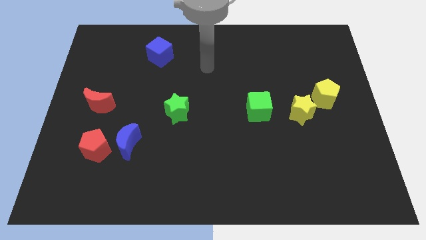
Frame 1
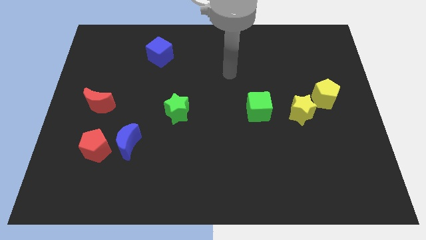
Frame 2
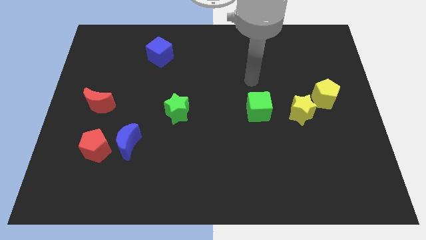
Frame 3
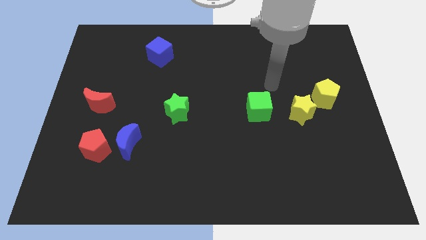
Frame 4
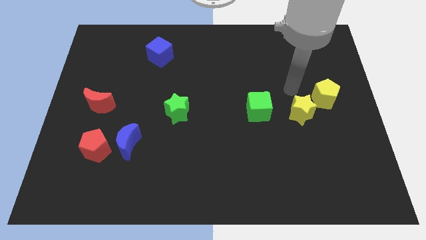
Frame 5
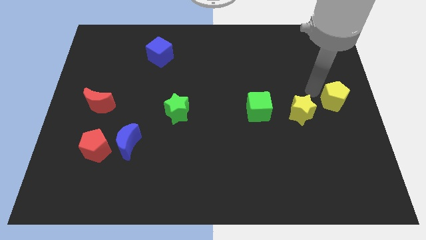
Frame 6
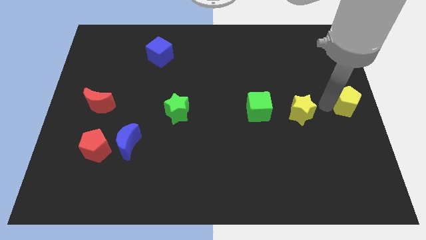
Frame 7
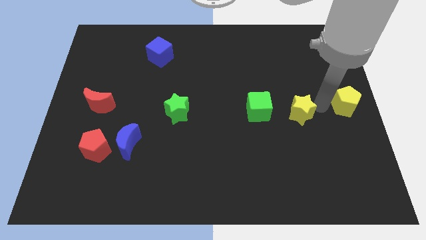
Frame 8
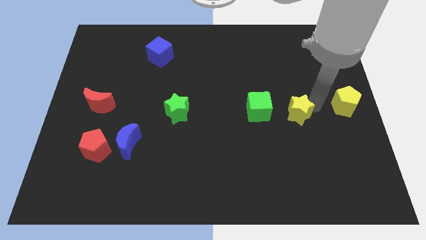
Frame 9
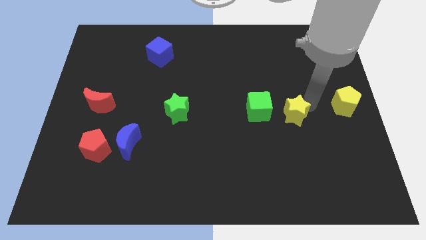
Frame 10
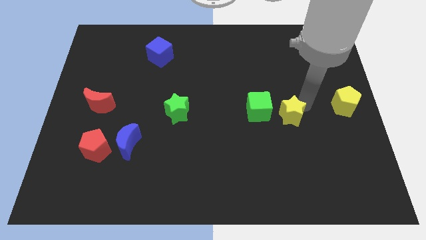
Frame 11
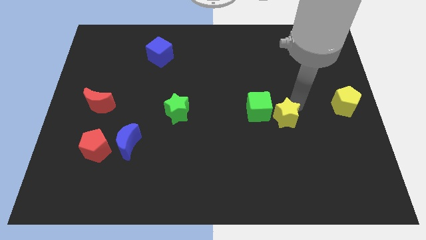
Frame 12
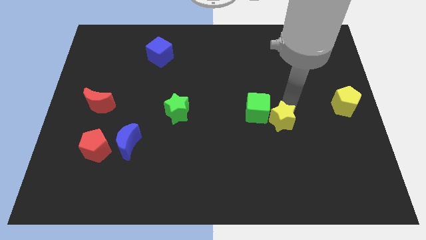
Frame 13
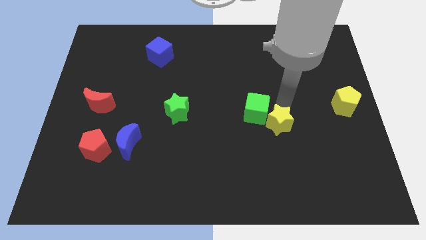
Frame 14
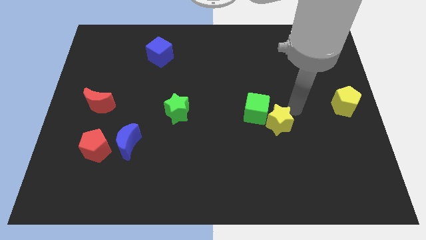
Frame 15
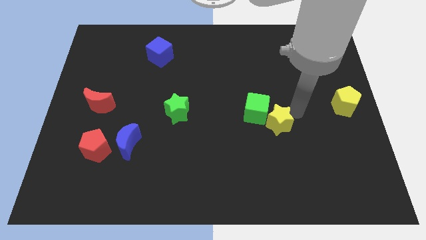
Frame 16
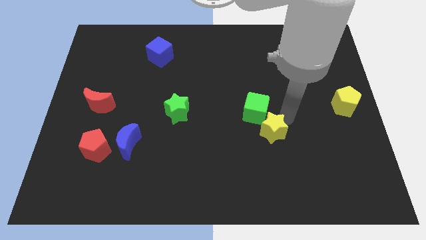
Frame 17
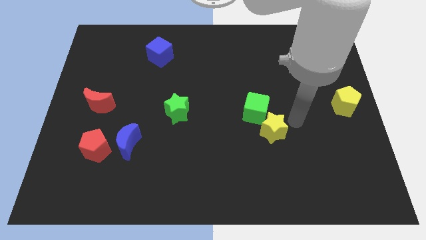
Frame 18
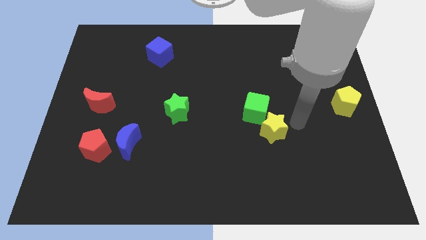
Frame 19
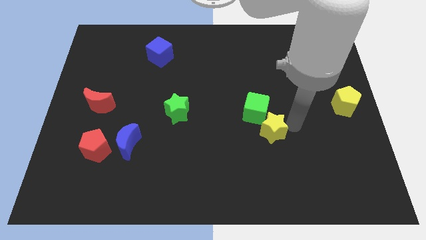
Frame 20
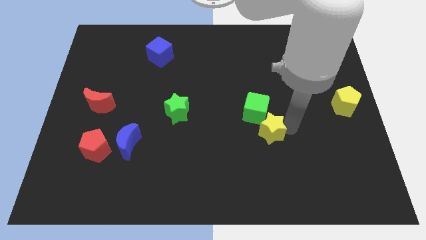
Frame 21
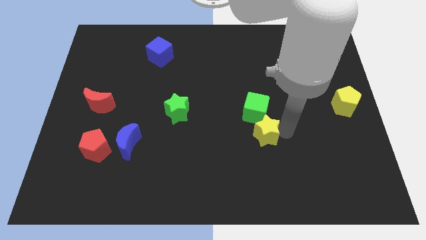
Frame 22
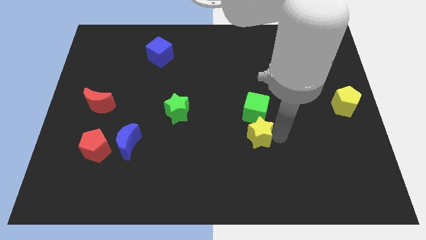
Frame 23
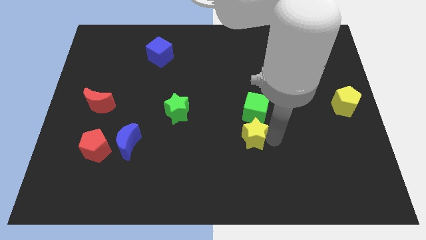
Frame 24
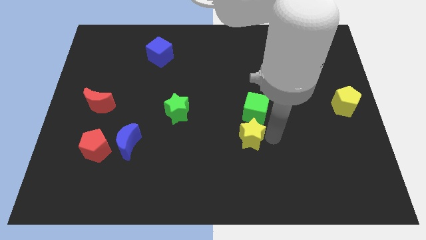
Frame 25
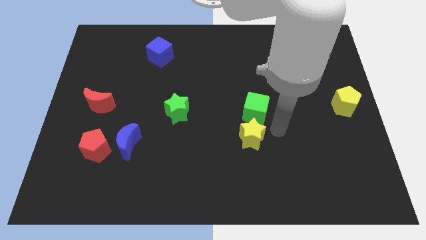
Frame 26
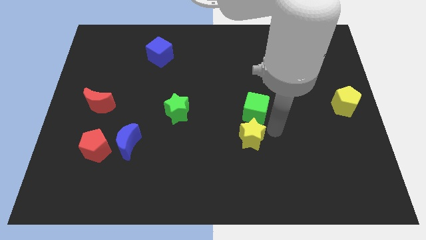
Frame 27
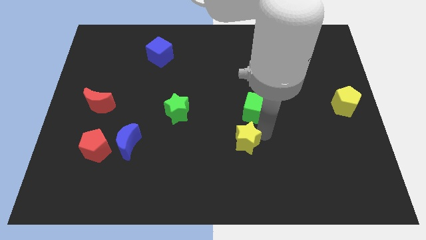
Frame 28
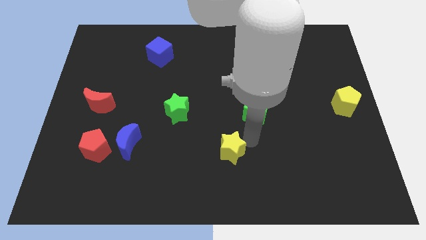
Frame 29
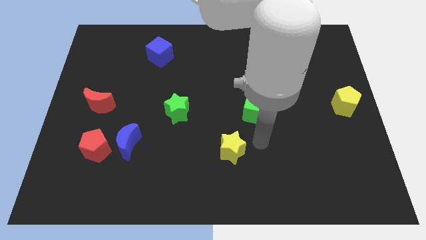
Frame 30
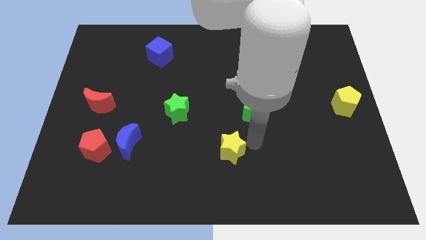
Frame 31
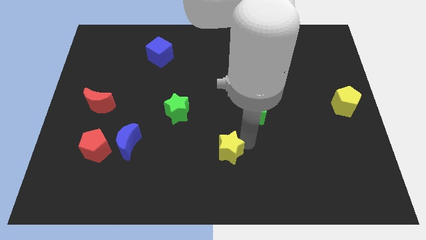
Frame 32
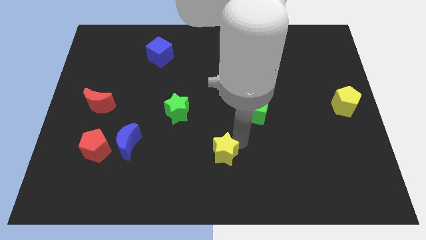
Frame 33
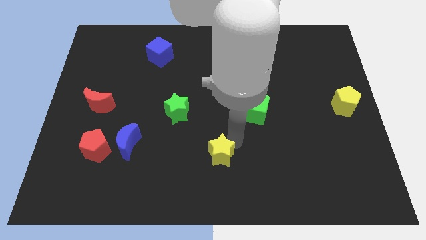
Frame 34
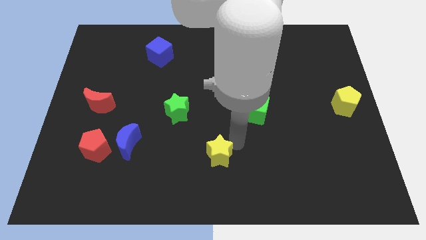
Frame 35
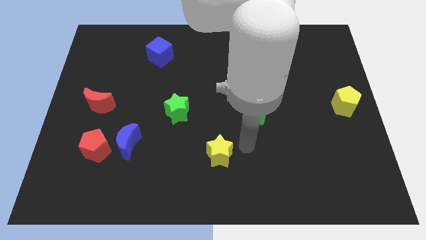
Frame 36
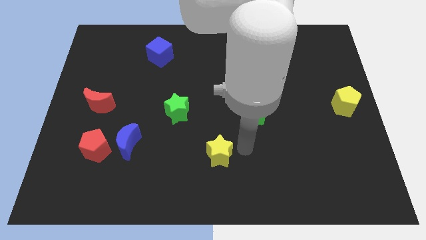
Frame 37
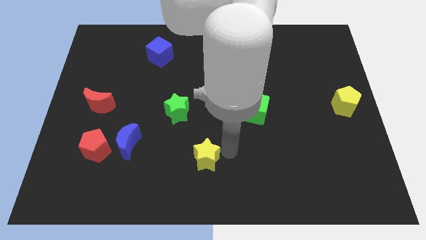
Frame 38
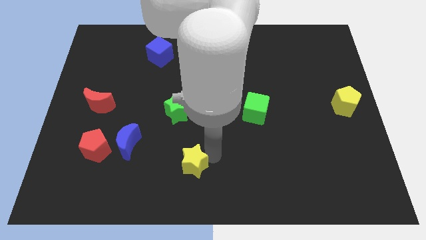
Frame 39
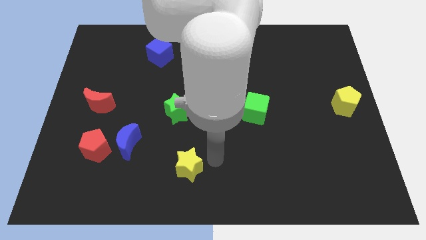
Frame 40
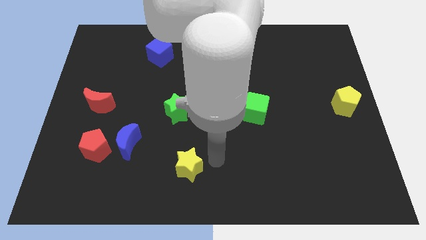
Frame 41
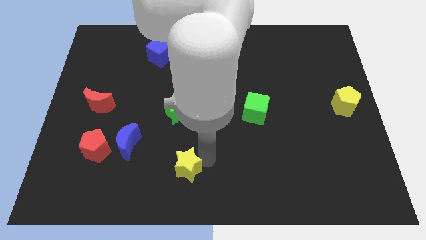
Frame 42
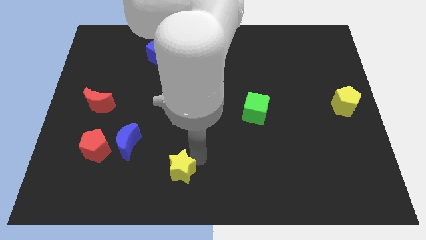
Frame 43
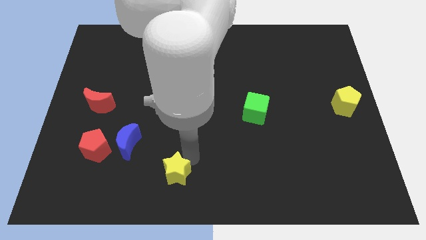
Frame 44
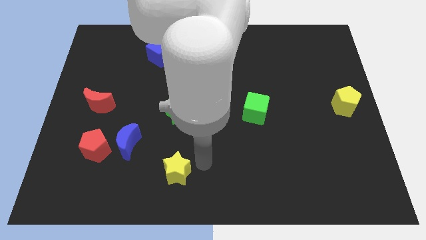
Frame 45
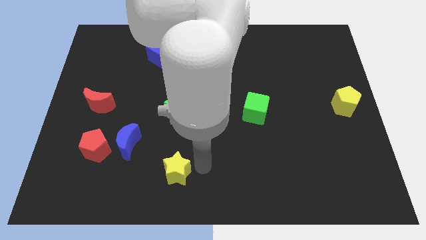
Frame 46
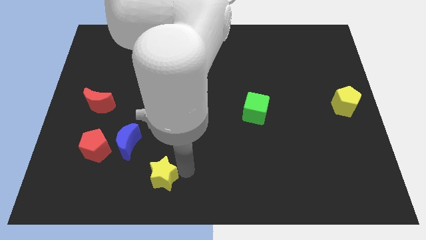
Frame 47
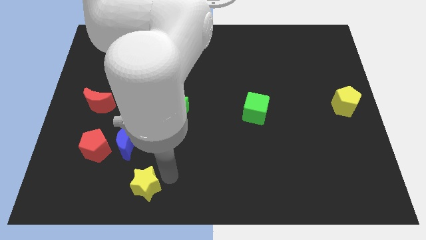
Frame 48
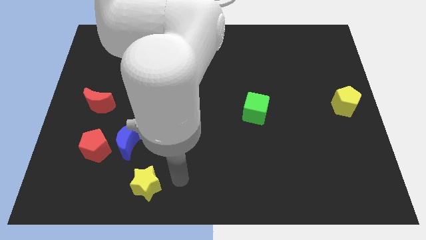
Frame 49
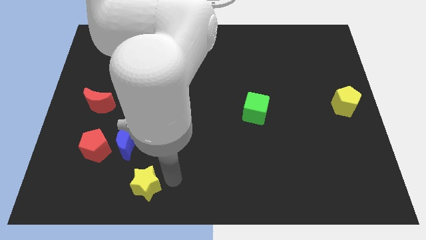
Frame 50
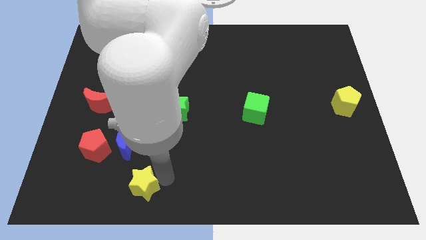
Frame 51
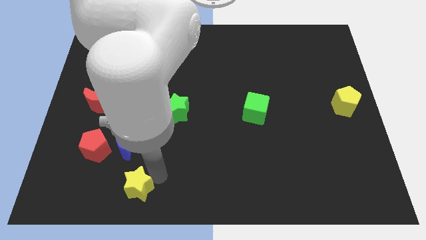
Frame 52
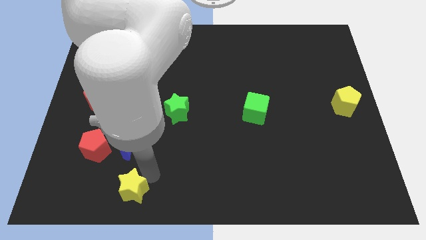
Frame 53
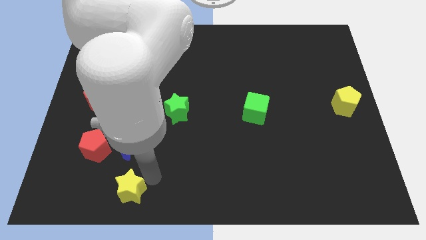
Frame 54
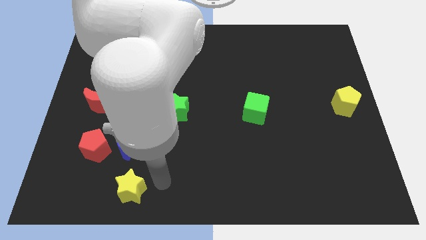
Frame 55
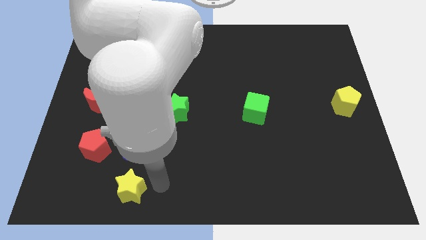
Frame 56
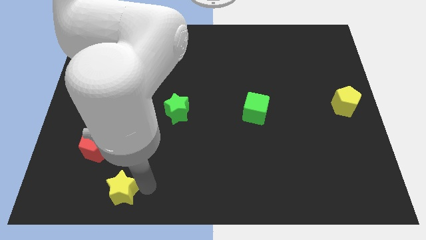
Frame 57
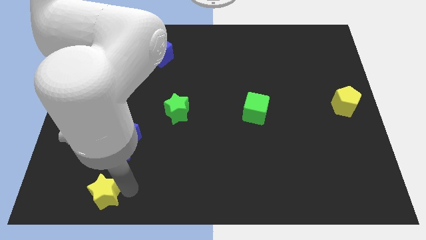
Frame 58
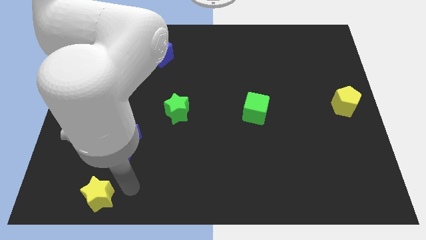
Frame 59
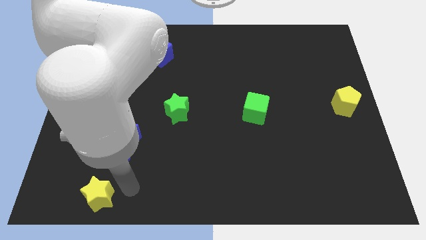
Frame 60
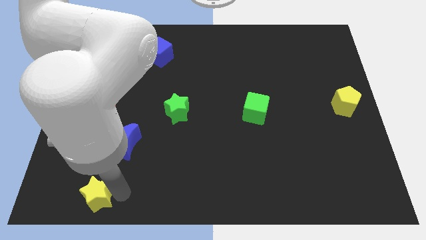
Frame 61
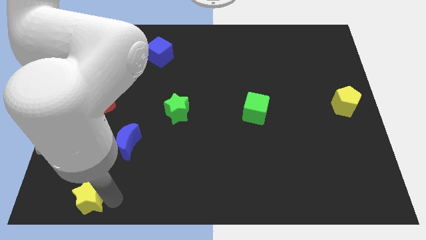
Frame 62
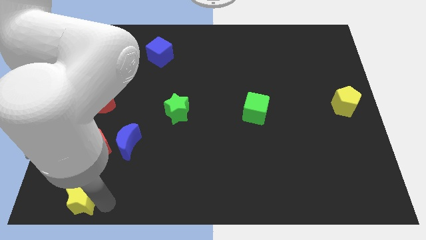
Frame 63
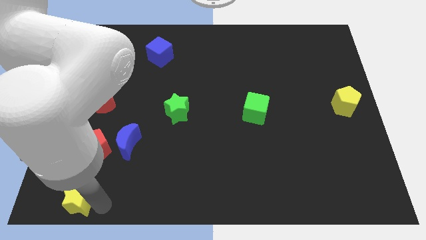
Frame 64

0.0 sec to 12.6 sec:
move the yellow star to the lower left corner

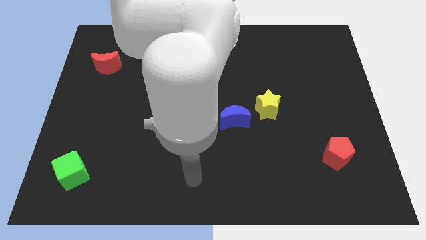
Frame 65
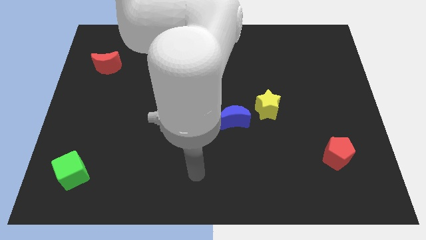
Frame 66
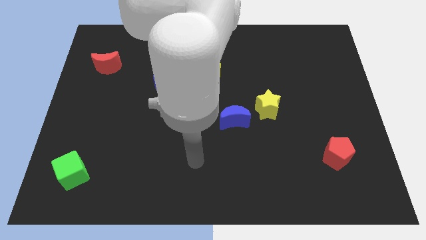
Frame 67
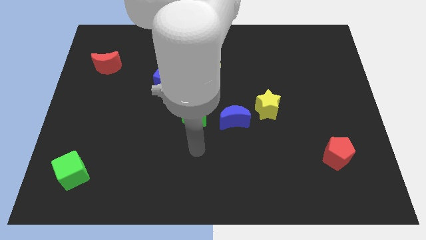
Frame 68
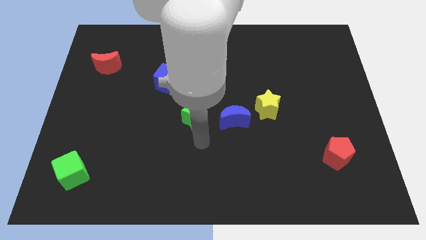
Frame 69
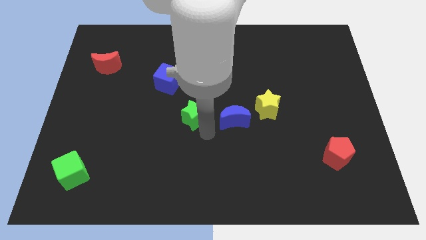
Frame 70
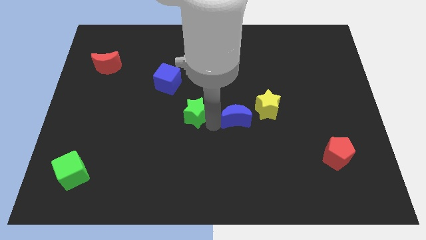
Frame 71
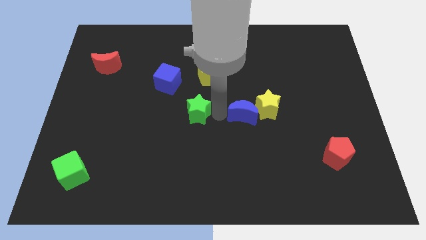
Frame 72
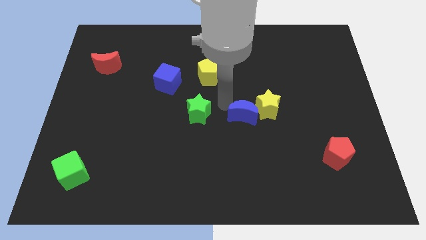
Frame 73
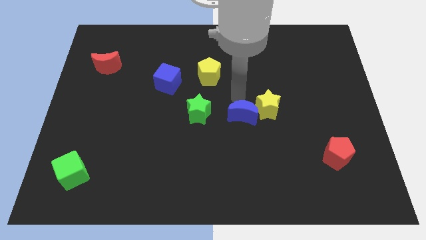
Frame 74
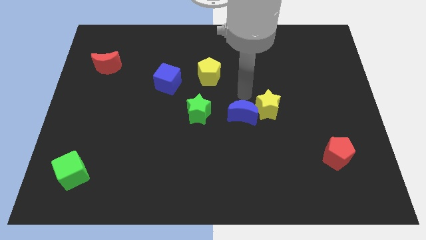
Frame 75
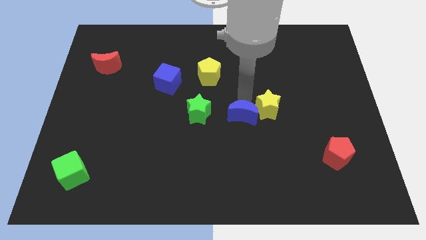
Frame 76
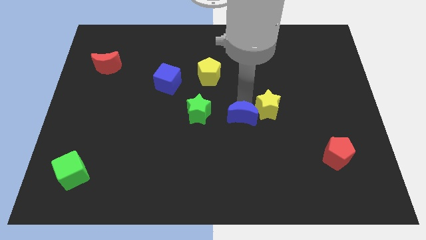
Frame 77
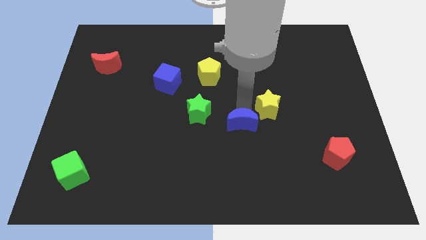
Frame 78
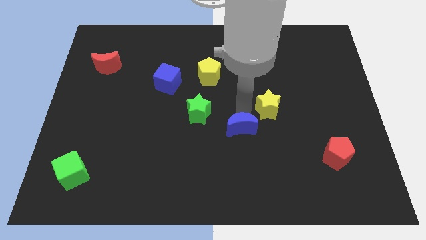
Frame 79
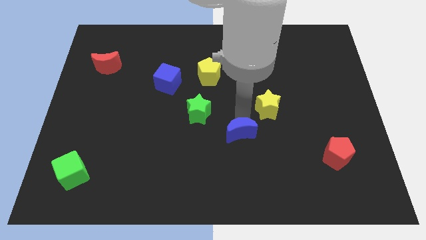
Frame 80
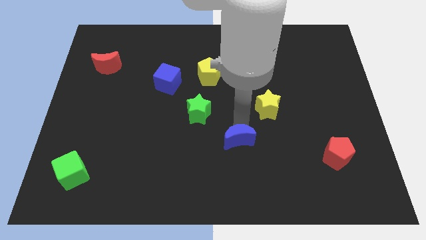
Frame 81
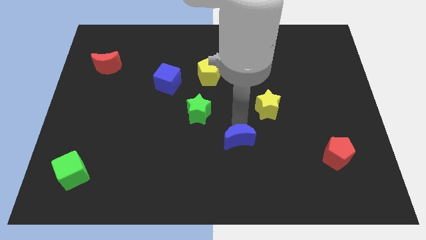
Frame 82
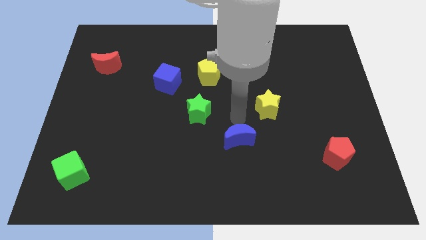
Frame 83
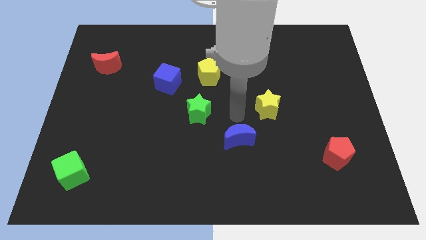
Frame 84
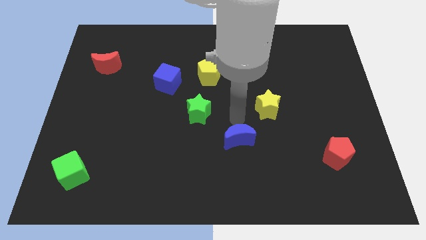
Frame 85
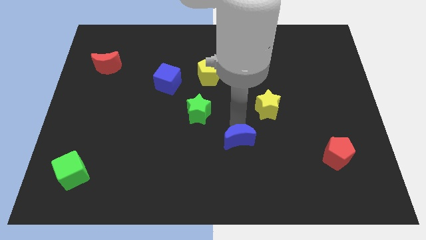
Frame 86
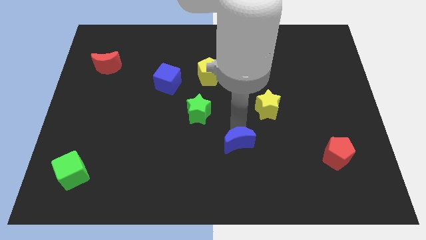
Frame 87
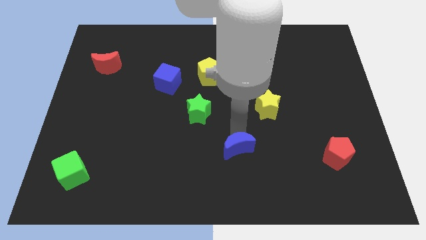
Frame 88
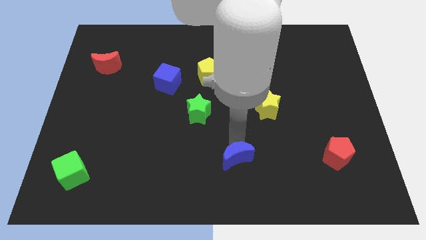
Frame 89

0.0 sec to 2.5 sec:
move the blue moon to the bottom
